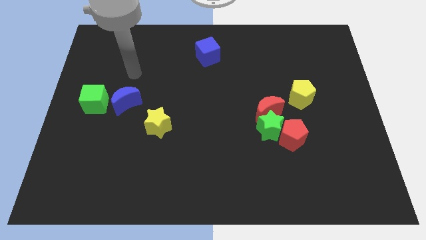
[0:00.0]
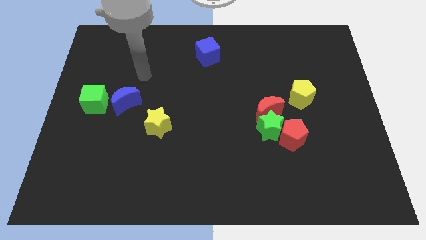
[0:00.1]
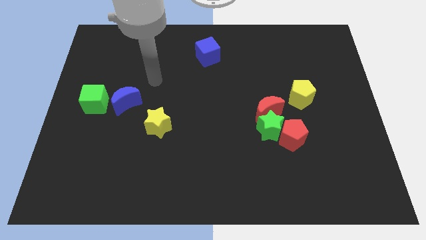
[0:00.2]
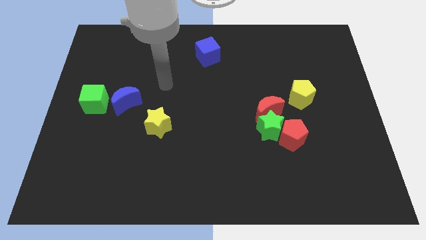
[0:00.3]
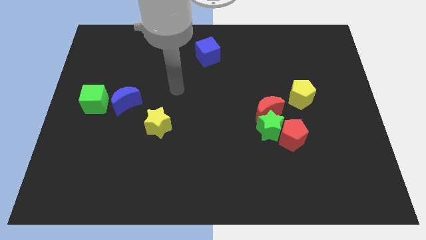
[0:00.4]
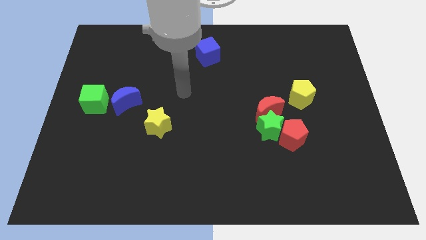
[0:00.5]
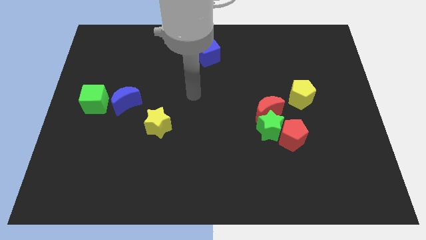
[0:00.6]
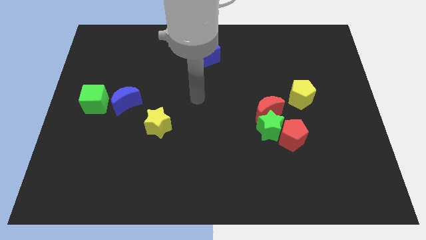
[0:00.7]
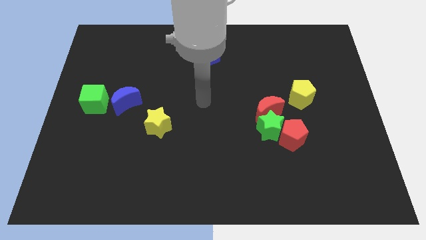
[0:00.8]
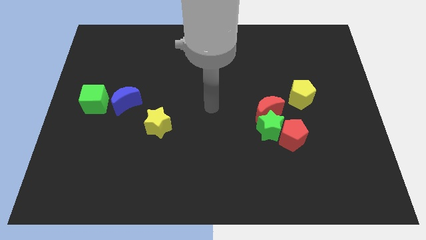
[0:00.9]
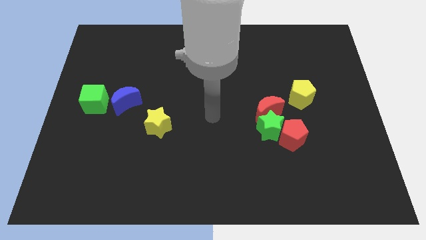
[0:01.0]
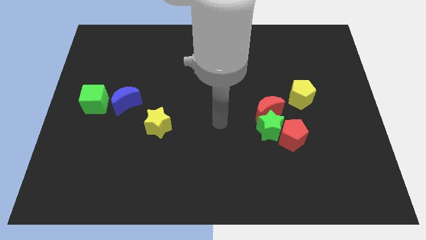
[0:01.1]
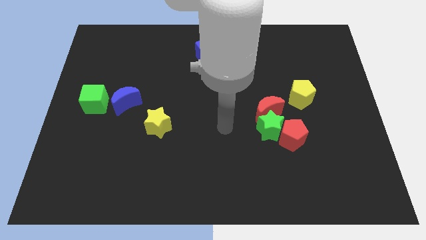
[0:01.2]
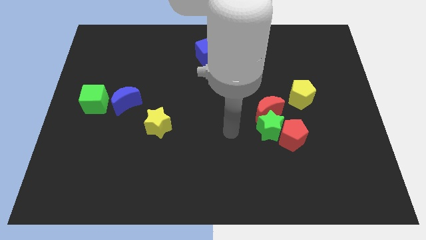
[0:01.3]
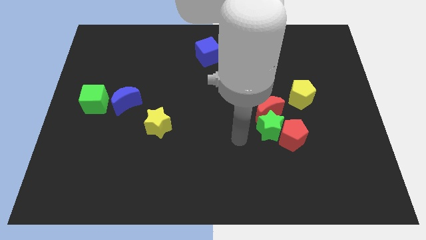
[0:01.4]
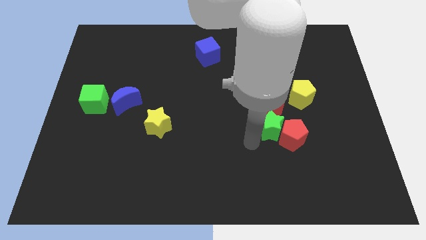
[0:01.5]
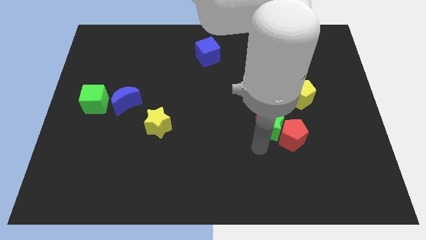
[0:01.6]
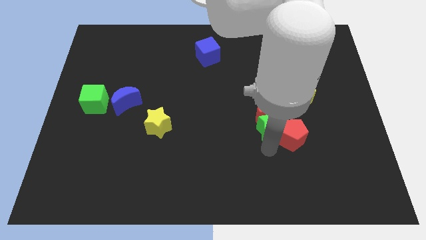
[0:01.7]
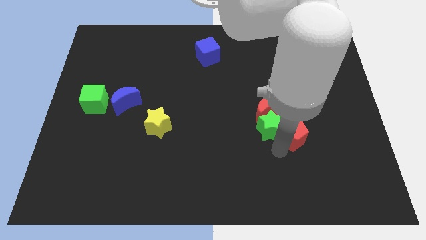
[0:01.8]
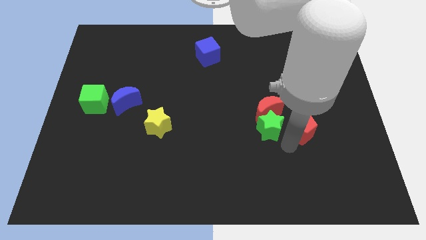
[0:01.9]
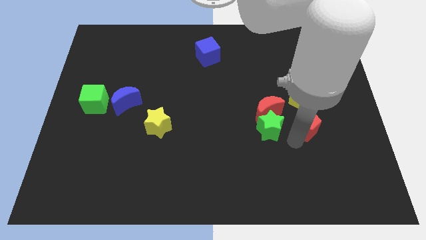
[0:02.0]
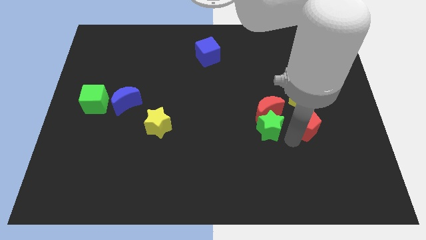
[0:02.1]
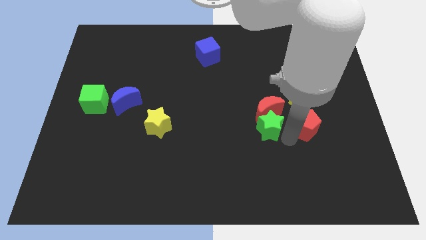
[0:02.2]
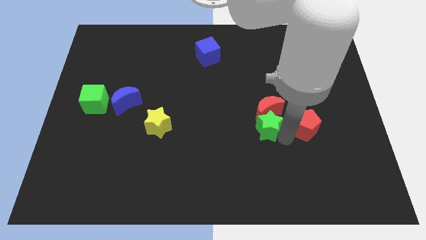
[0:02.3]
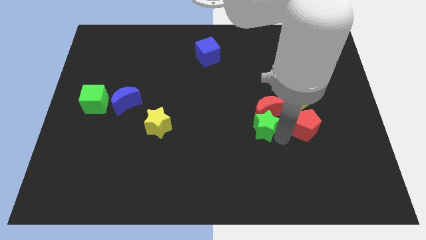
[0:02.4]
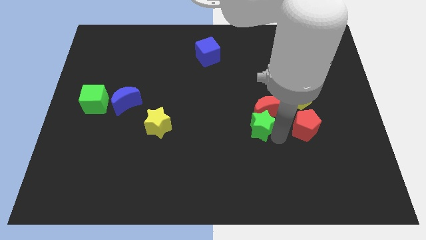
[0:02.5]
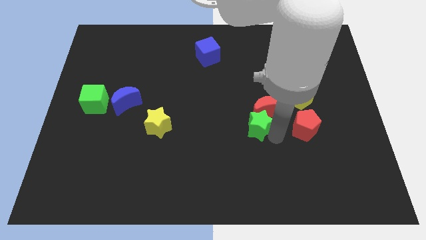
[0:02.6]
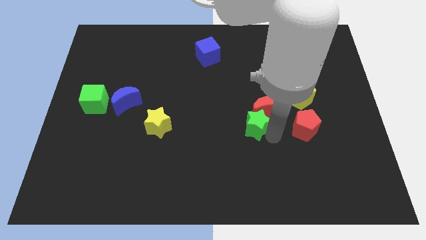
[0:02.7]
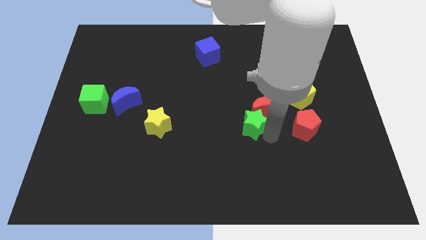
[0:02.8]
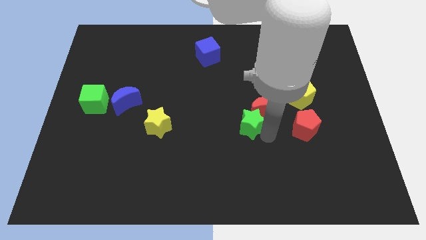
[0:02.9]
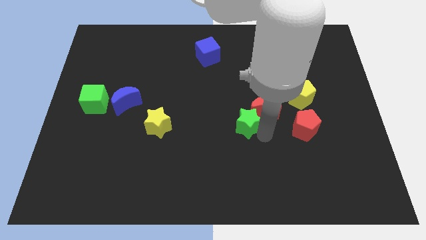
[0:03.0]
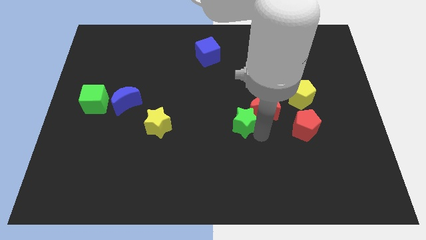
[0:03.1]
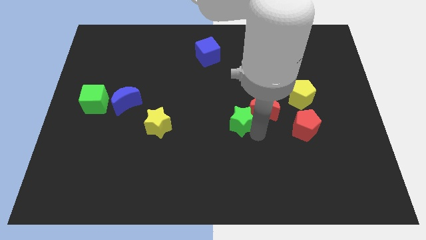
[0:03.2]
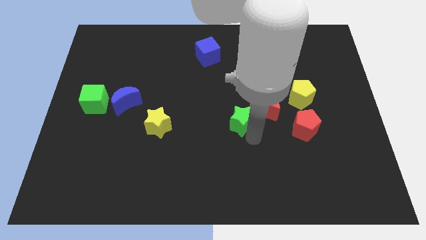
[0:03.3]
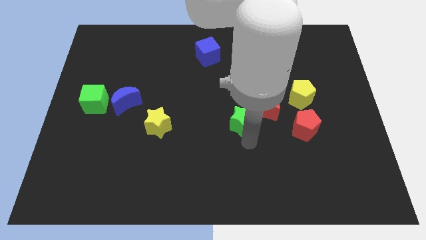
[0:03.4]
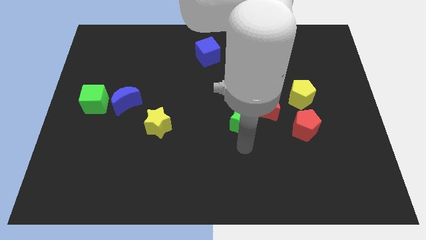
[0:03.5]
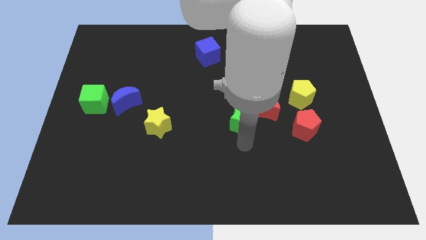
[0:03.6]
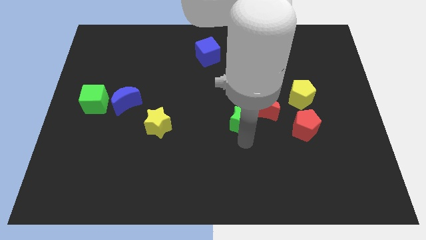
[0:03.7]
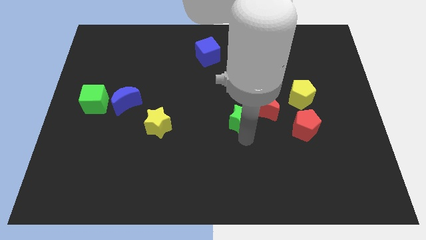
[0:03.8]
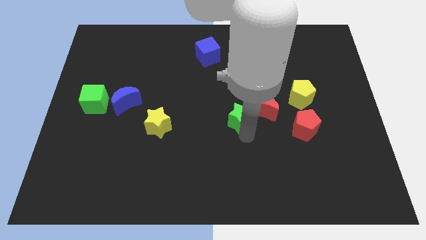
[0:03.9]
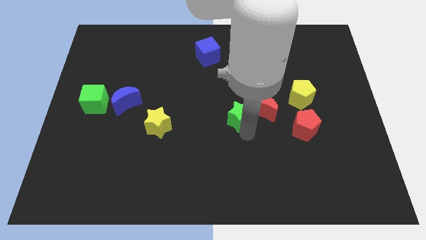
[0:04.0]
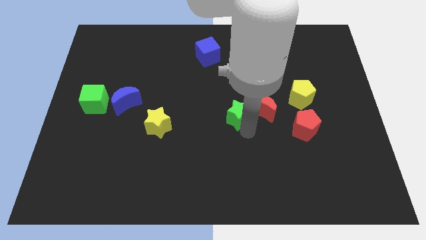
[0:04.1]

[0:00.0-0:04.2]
slightly push the green star upwards and then left

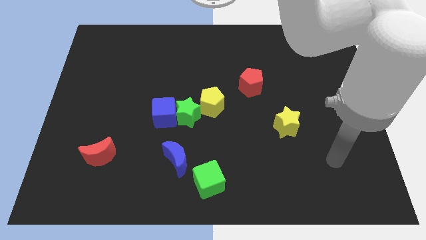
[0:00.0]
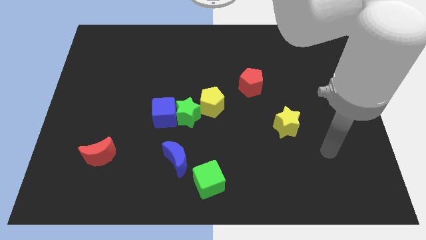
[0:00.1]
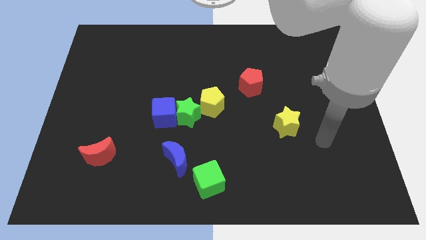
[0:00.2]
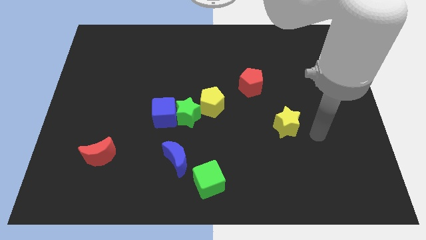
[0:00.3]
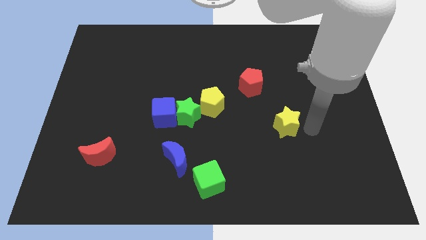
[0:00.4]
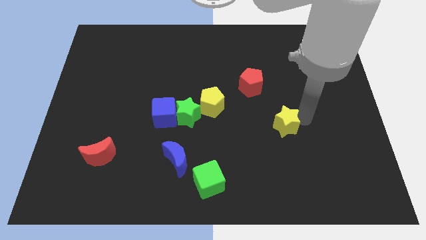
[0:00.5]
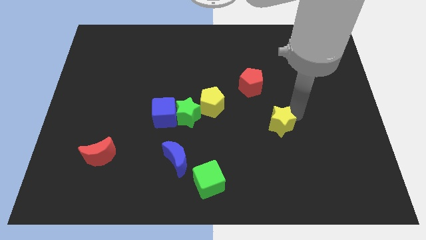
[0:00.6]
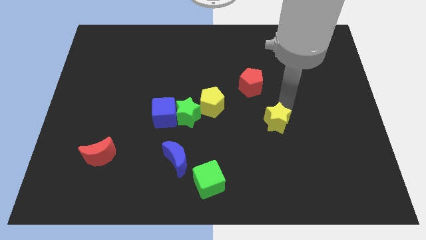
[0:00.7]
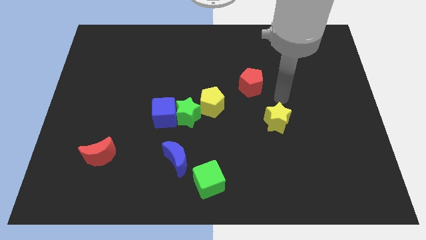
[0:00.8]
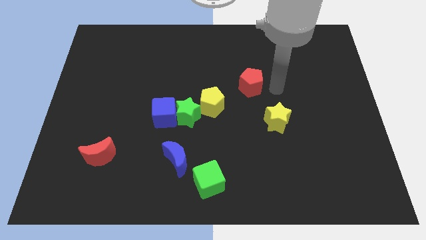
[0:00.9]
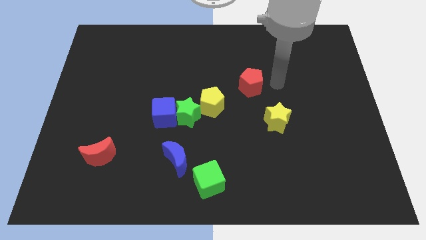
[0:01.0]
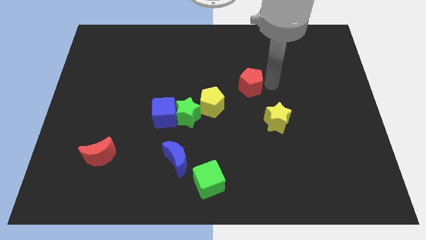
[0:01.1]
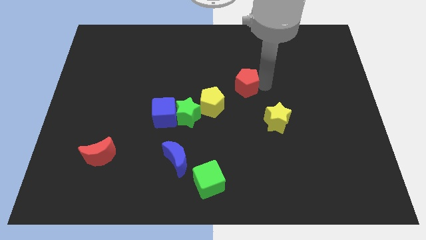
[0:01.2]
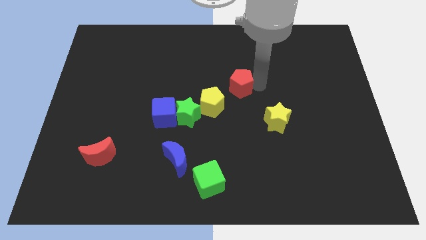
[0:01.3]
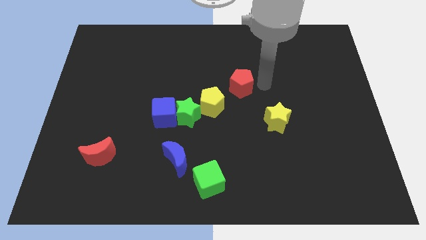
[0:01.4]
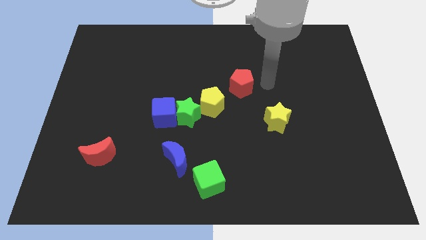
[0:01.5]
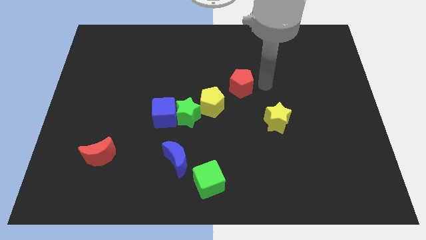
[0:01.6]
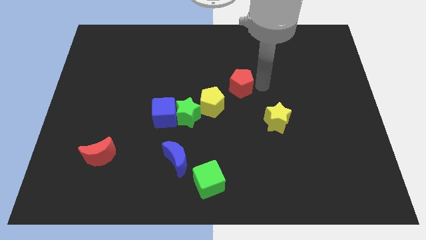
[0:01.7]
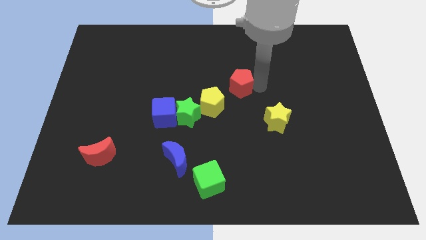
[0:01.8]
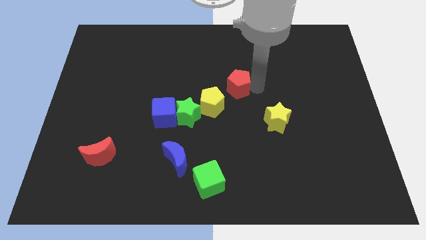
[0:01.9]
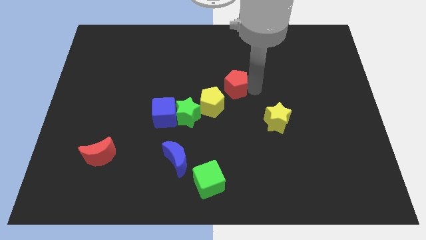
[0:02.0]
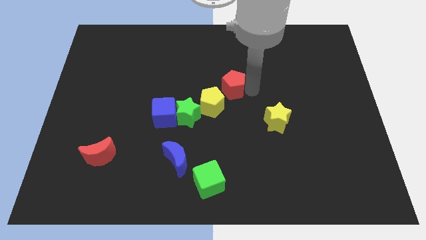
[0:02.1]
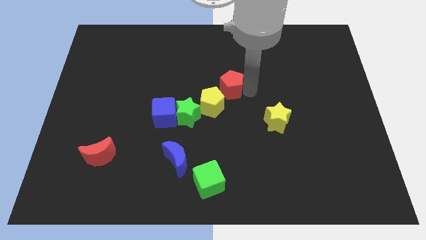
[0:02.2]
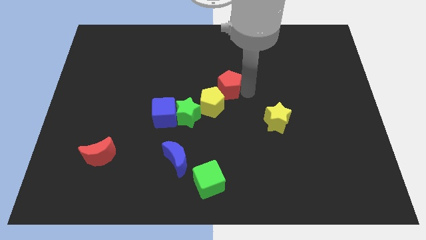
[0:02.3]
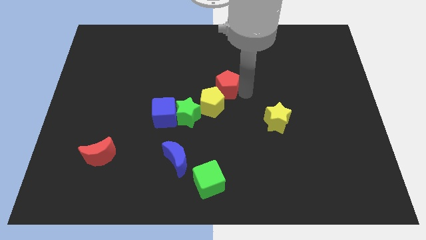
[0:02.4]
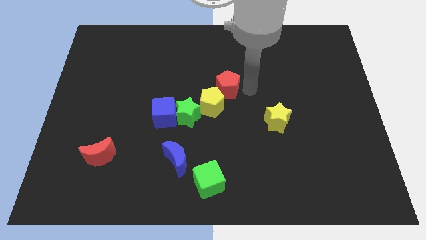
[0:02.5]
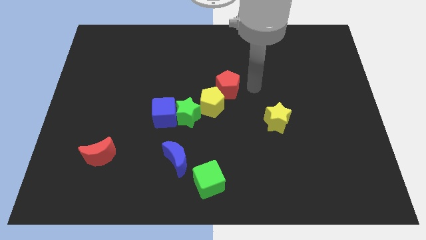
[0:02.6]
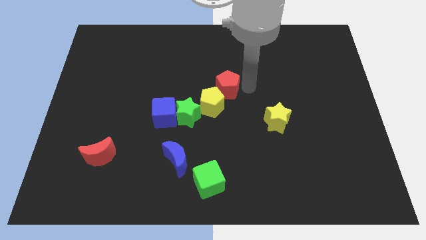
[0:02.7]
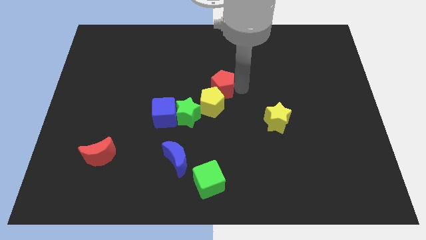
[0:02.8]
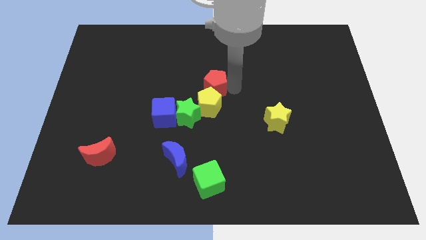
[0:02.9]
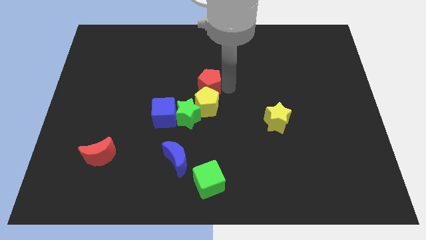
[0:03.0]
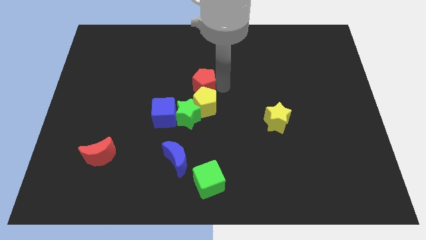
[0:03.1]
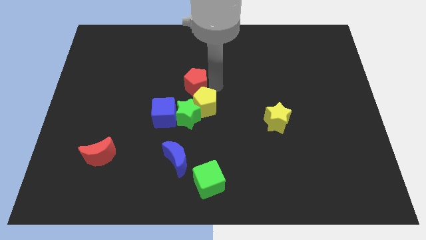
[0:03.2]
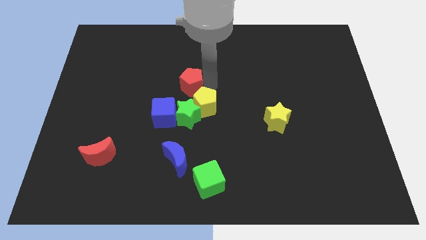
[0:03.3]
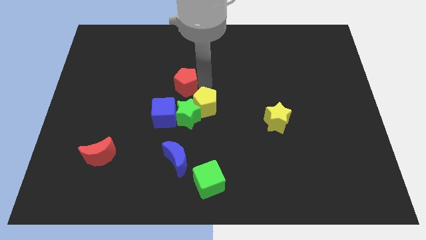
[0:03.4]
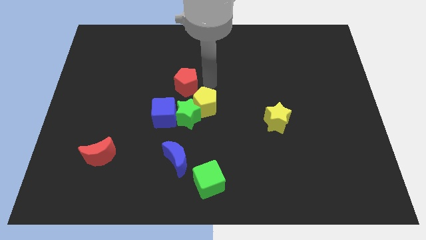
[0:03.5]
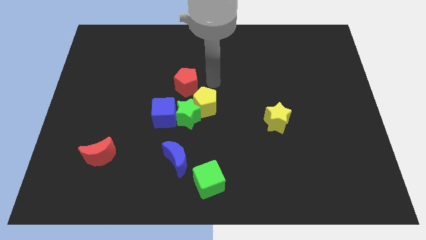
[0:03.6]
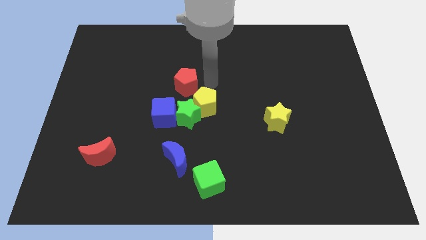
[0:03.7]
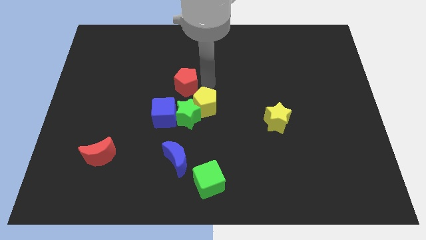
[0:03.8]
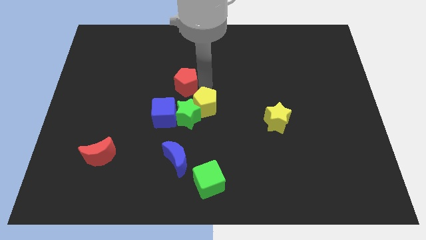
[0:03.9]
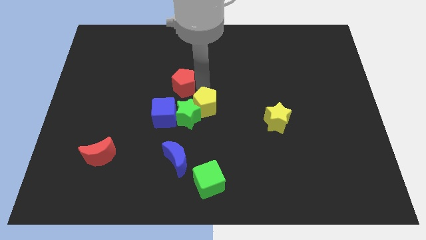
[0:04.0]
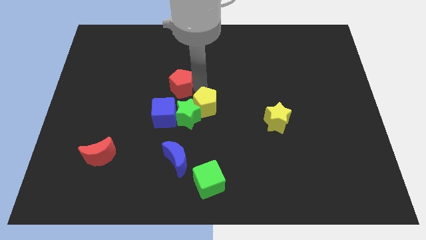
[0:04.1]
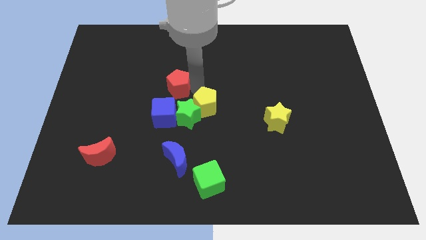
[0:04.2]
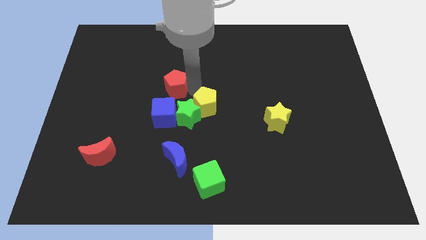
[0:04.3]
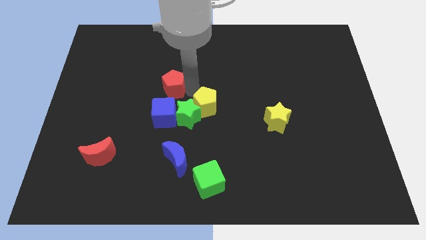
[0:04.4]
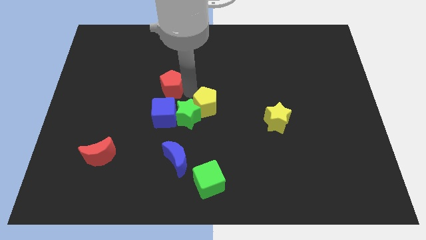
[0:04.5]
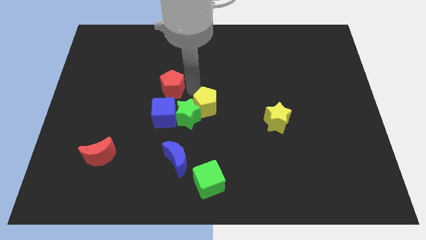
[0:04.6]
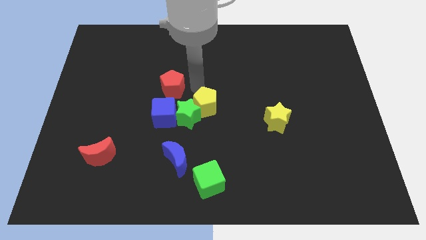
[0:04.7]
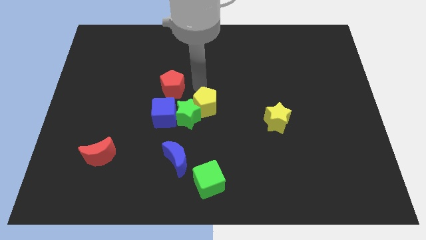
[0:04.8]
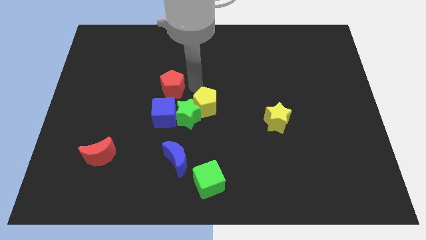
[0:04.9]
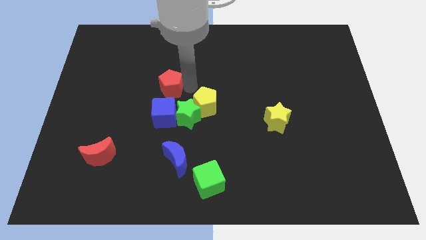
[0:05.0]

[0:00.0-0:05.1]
push the red pentagon left
